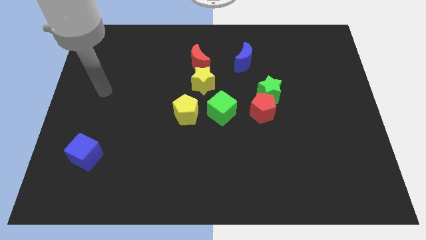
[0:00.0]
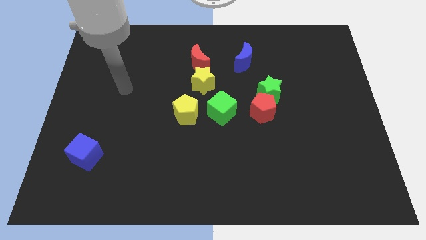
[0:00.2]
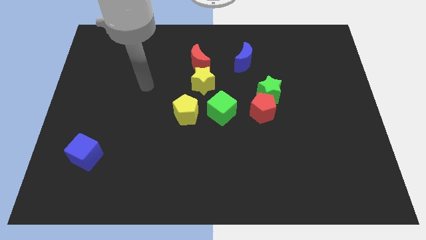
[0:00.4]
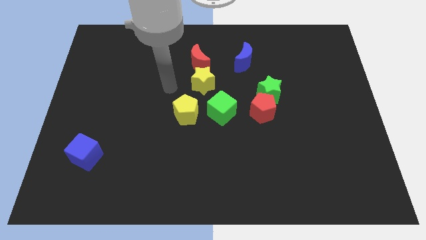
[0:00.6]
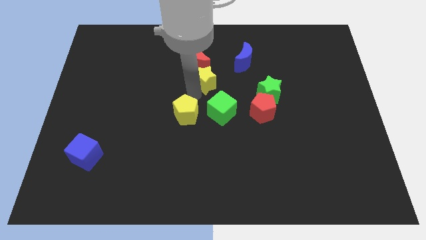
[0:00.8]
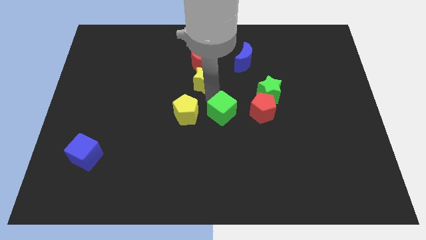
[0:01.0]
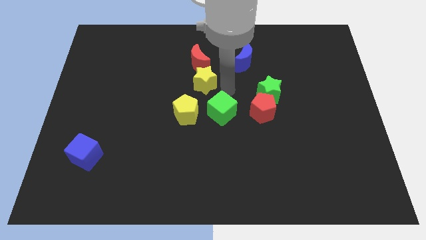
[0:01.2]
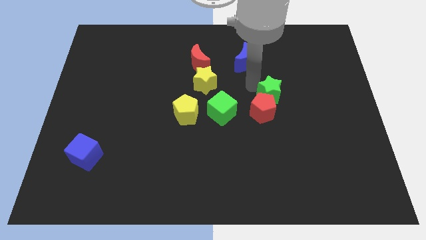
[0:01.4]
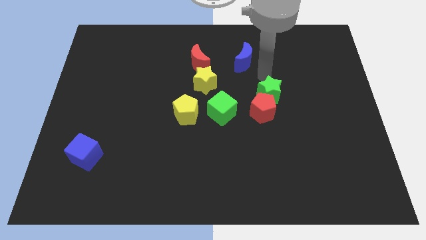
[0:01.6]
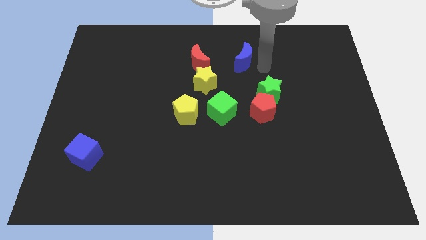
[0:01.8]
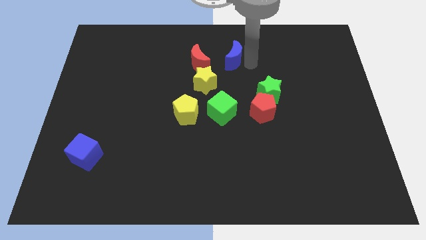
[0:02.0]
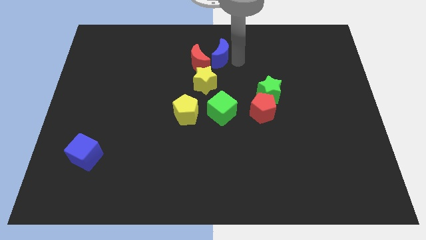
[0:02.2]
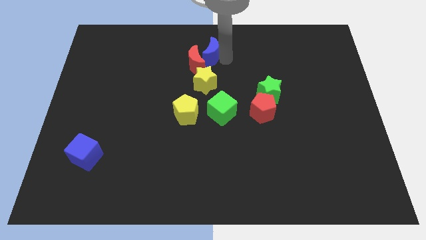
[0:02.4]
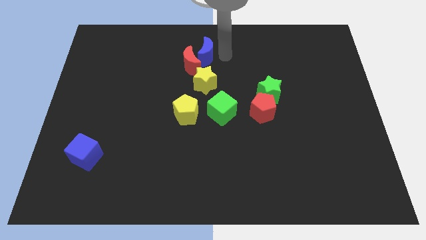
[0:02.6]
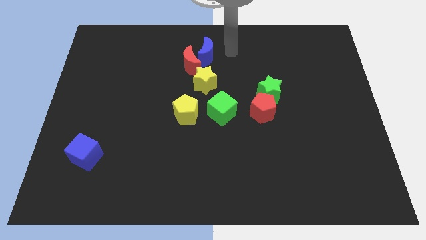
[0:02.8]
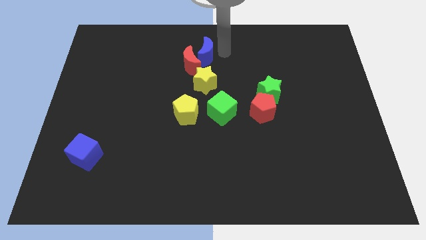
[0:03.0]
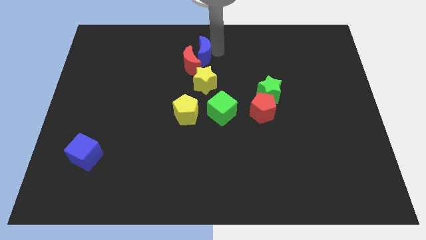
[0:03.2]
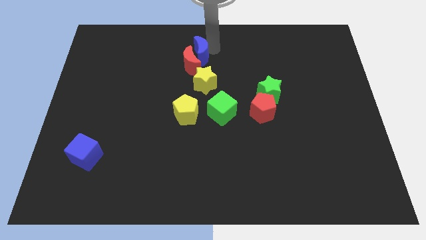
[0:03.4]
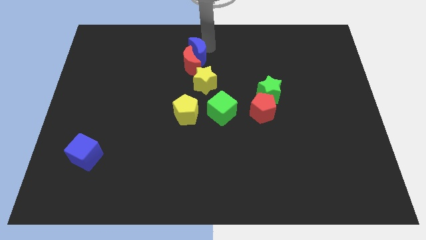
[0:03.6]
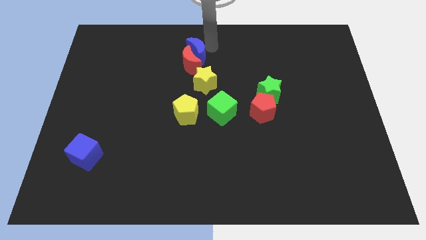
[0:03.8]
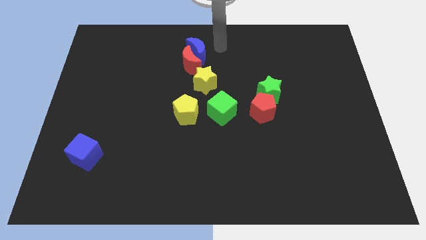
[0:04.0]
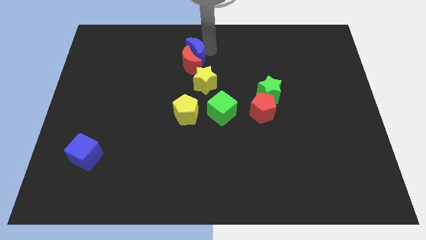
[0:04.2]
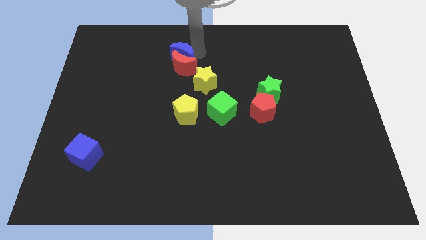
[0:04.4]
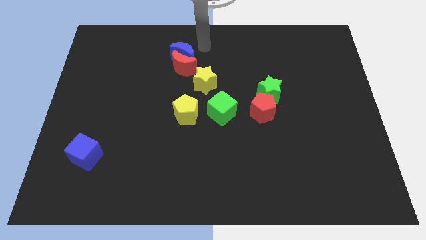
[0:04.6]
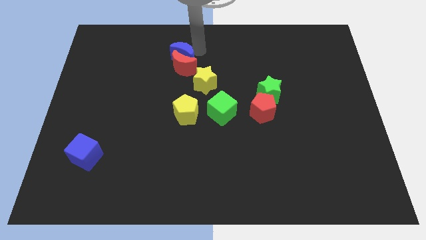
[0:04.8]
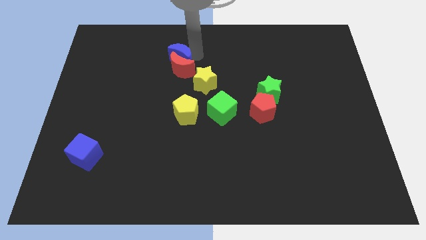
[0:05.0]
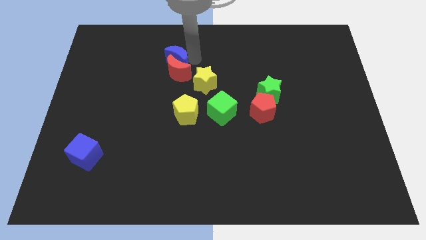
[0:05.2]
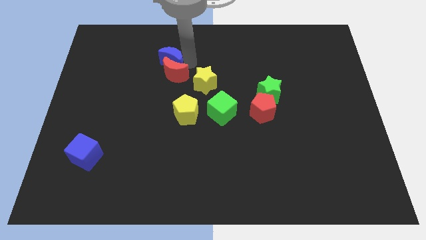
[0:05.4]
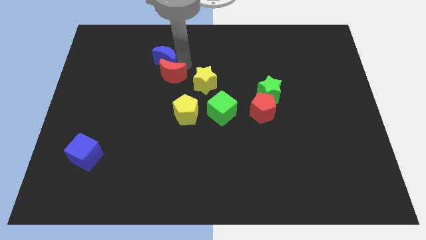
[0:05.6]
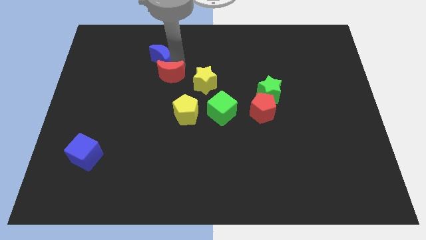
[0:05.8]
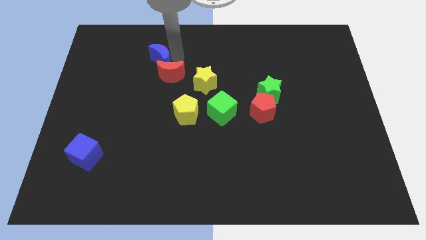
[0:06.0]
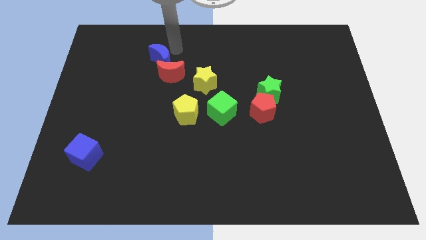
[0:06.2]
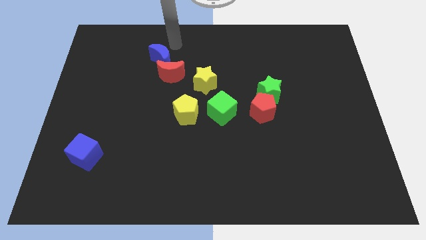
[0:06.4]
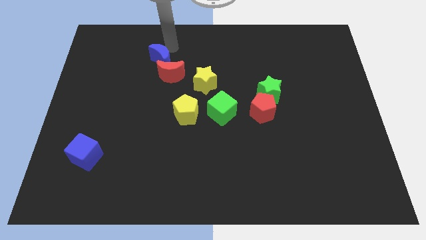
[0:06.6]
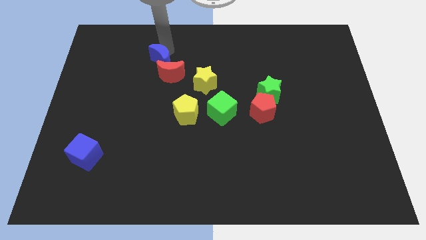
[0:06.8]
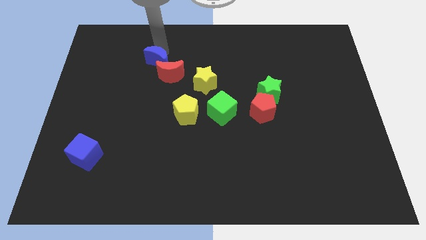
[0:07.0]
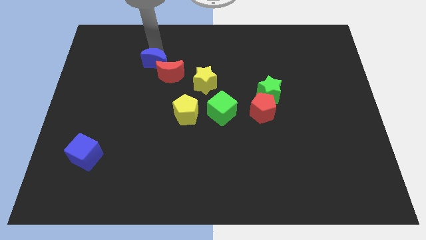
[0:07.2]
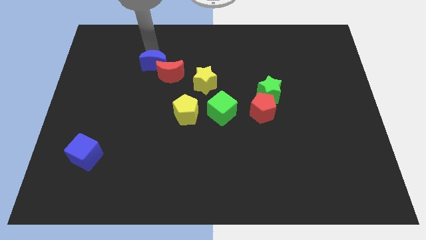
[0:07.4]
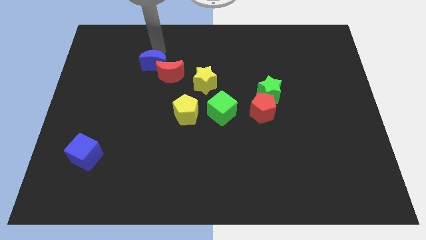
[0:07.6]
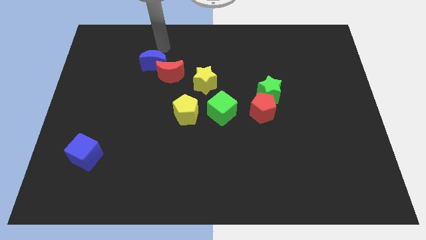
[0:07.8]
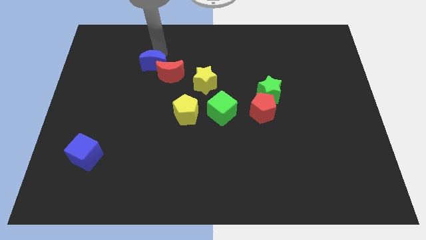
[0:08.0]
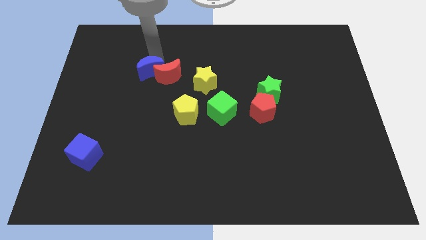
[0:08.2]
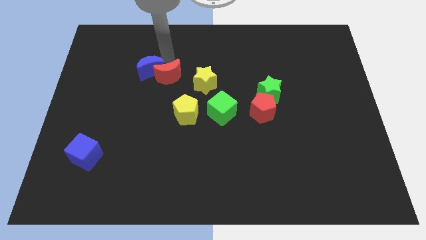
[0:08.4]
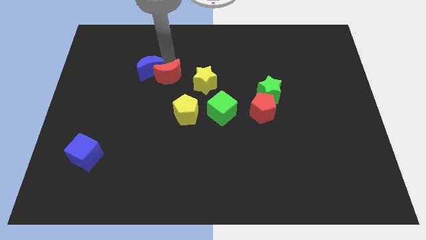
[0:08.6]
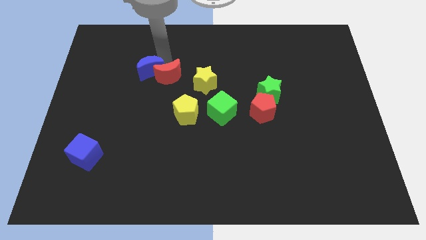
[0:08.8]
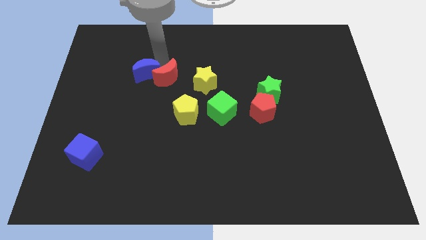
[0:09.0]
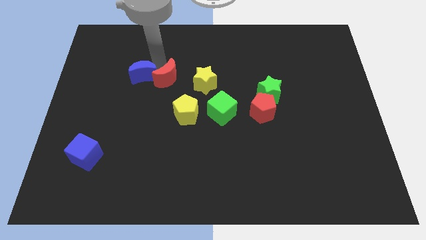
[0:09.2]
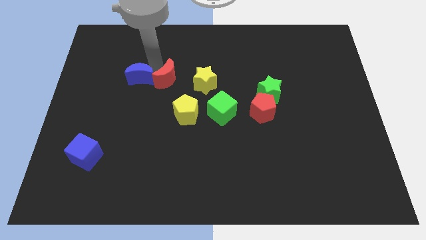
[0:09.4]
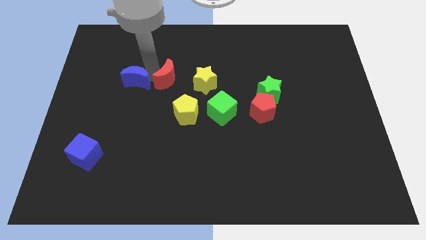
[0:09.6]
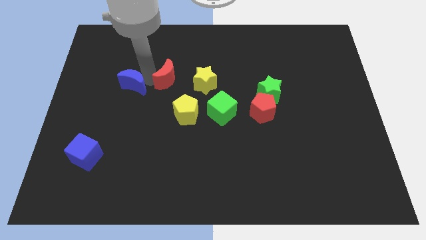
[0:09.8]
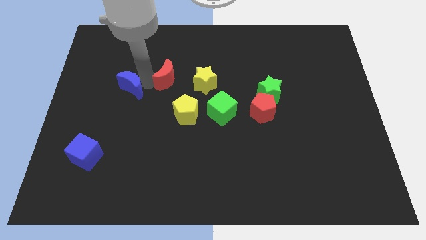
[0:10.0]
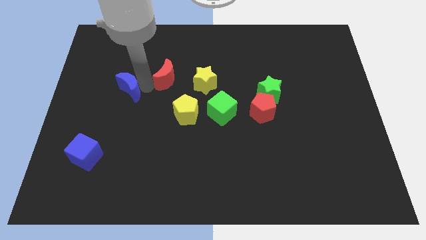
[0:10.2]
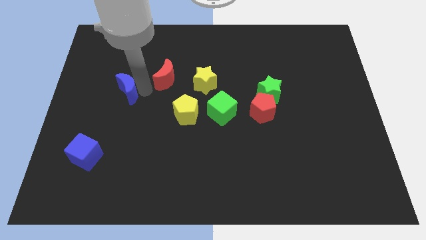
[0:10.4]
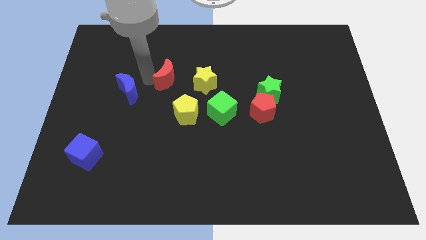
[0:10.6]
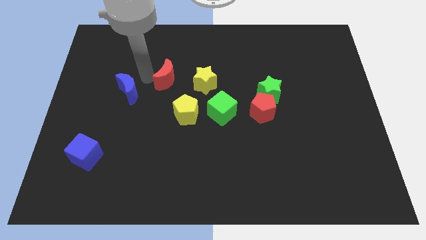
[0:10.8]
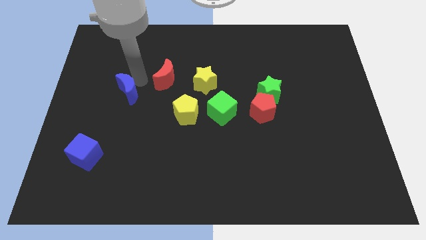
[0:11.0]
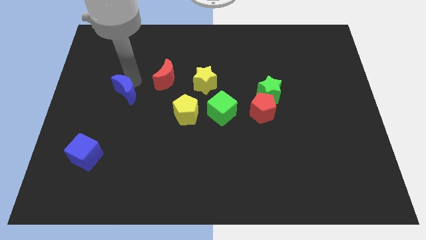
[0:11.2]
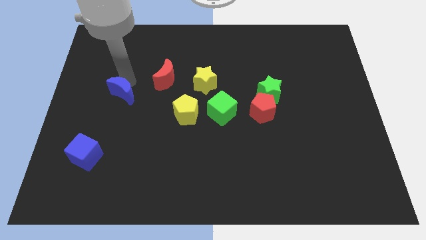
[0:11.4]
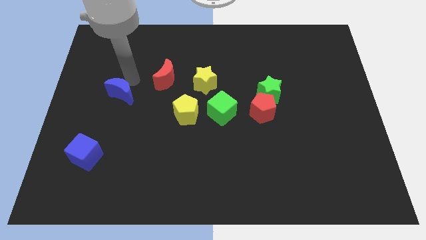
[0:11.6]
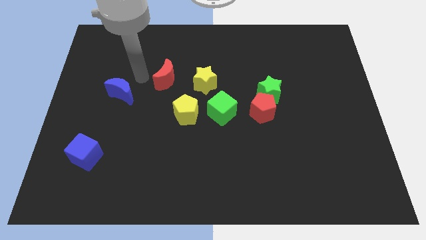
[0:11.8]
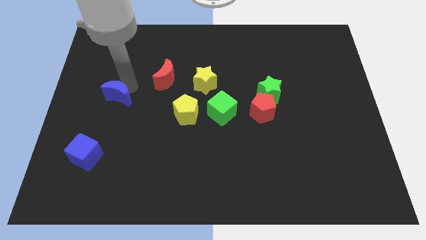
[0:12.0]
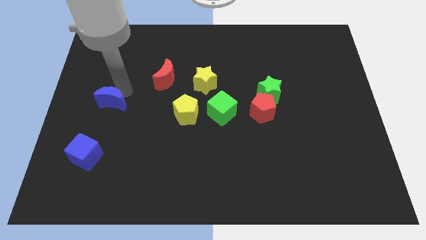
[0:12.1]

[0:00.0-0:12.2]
put the blue moon above the blue cube

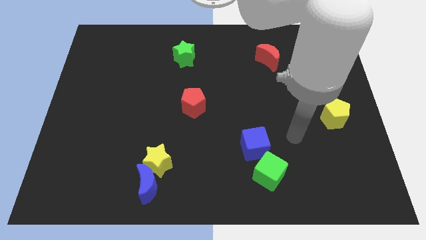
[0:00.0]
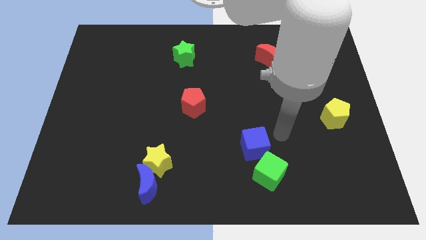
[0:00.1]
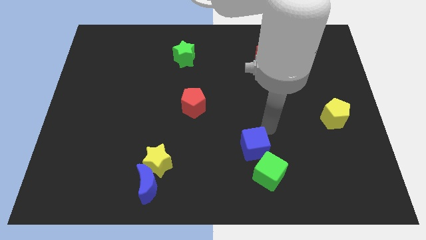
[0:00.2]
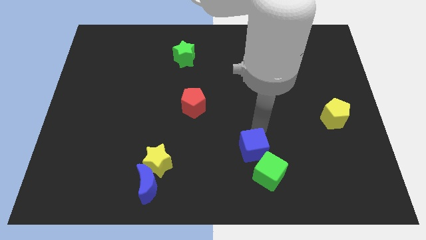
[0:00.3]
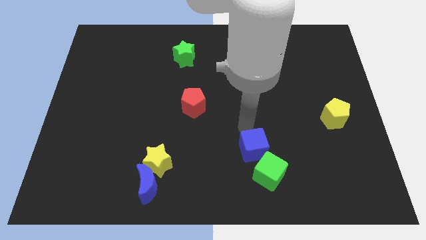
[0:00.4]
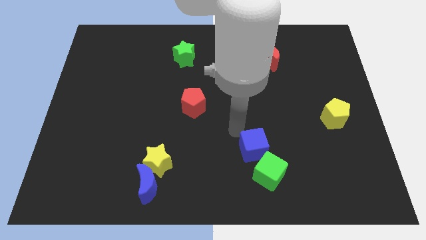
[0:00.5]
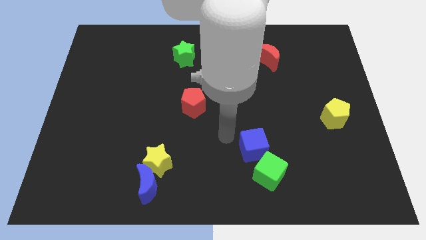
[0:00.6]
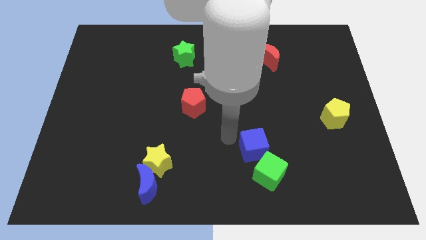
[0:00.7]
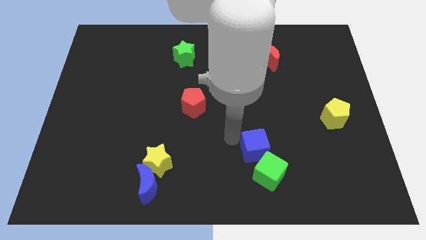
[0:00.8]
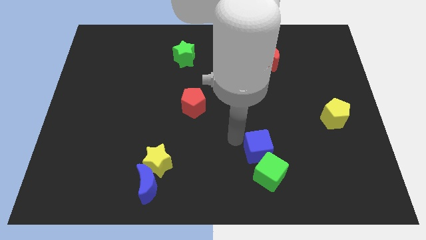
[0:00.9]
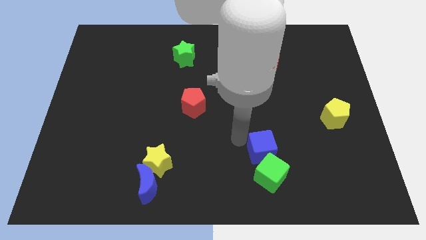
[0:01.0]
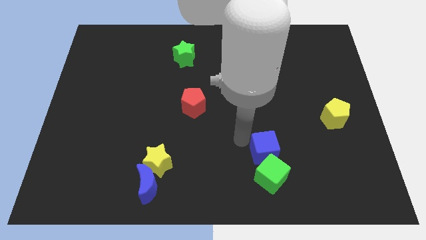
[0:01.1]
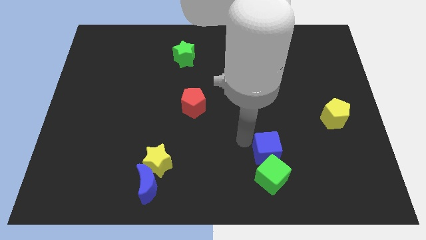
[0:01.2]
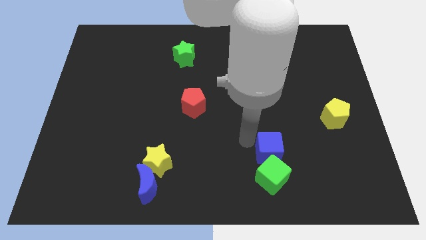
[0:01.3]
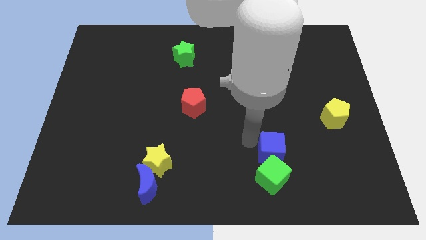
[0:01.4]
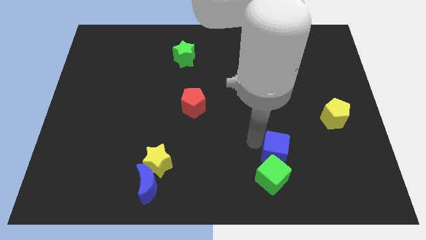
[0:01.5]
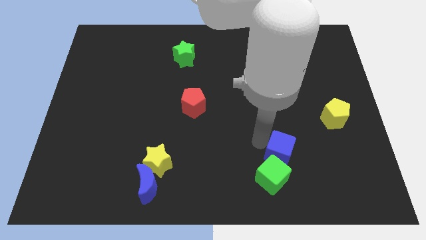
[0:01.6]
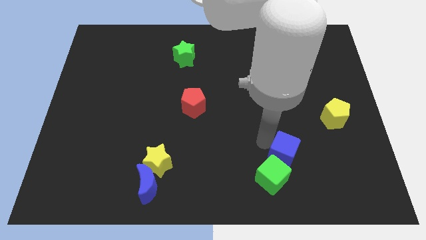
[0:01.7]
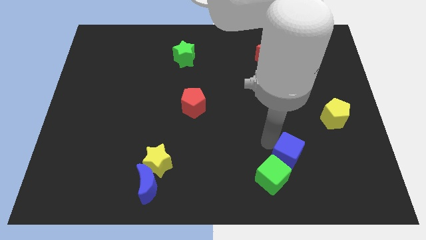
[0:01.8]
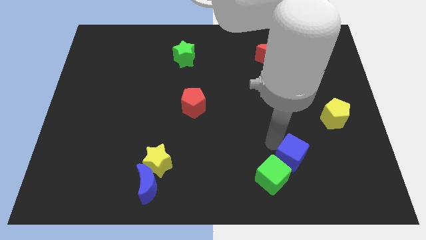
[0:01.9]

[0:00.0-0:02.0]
push the blue cube to the right of the green cube
